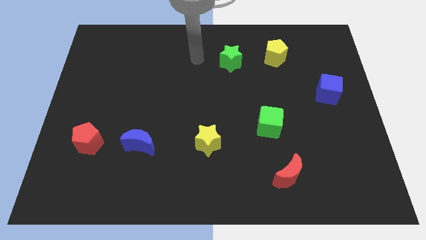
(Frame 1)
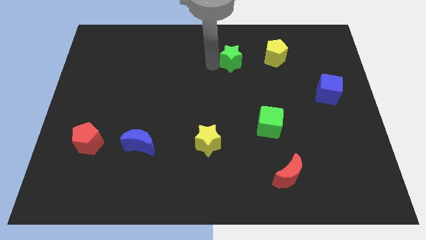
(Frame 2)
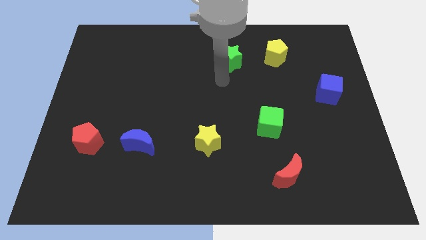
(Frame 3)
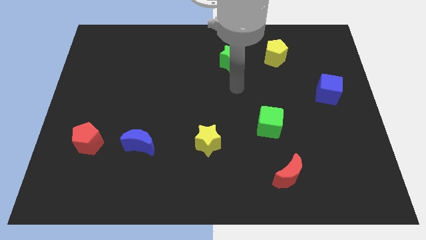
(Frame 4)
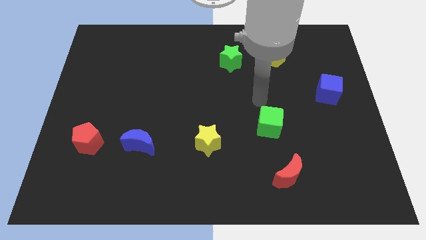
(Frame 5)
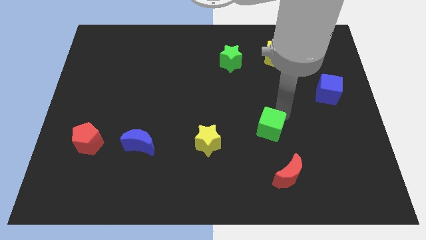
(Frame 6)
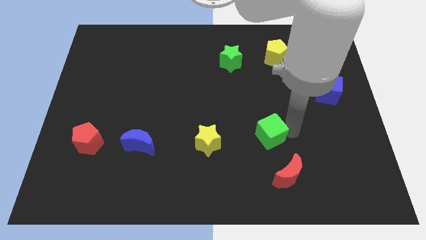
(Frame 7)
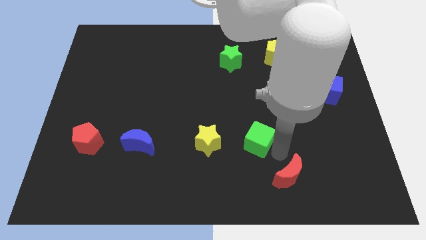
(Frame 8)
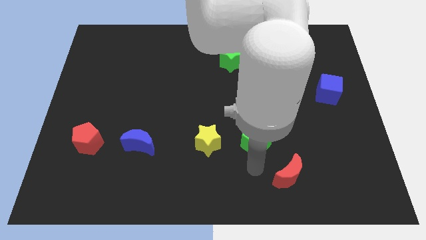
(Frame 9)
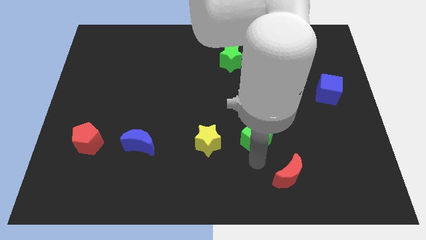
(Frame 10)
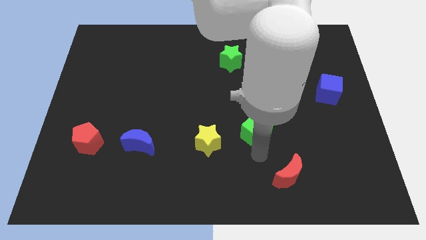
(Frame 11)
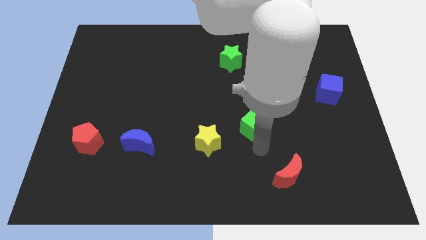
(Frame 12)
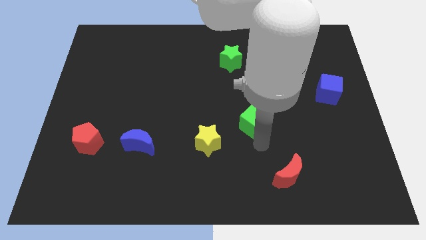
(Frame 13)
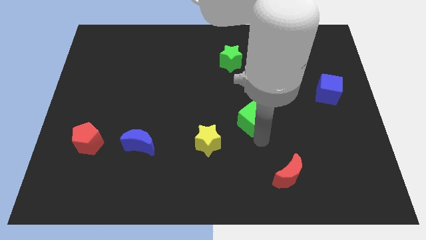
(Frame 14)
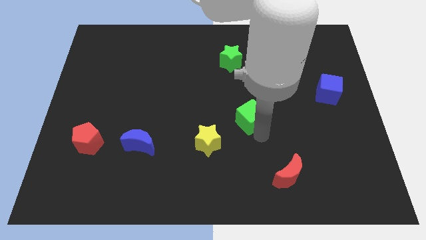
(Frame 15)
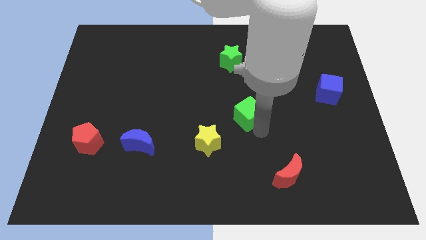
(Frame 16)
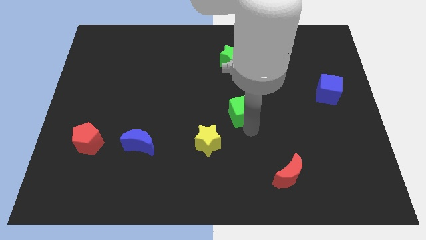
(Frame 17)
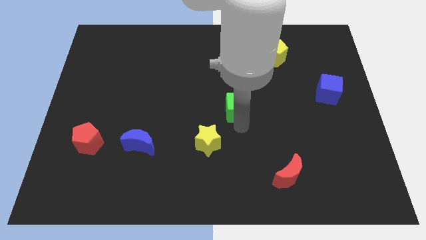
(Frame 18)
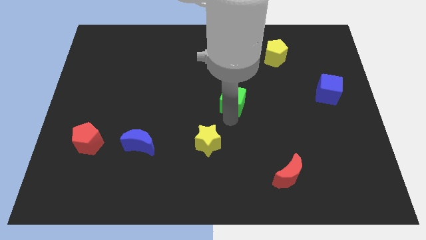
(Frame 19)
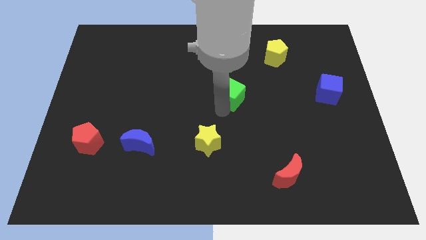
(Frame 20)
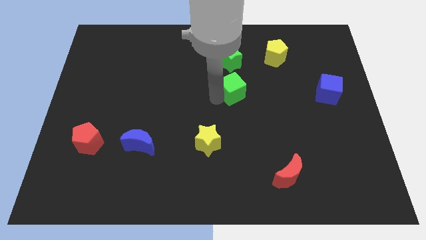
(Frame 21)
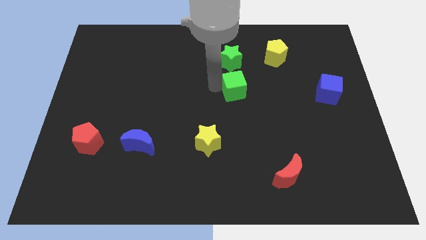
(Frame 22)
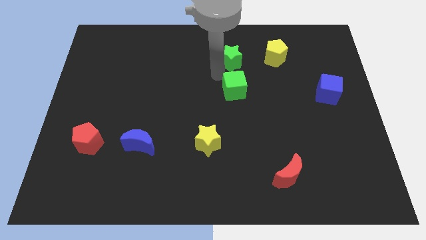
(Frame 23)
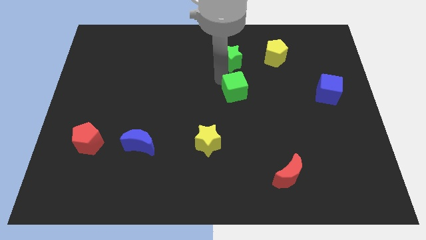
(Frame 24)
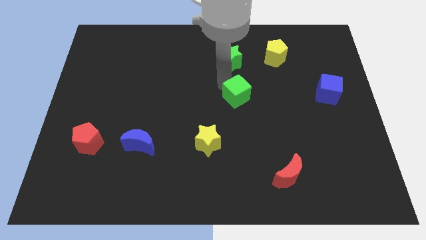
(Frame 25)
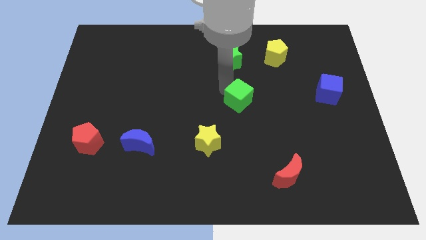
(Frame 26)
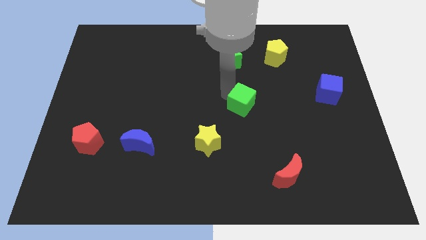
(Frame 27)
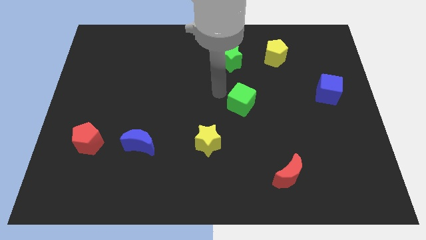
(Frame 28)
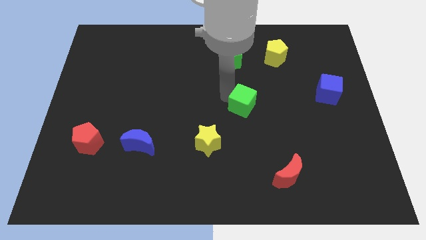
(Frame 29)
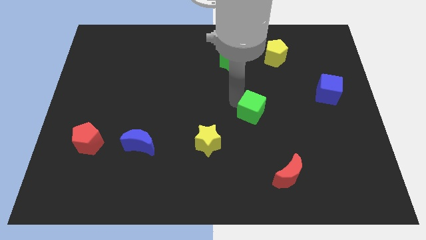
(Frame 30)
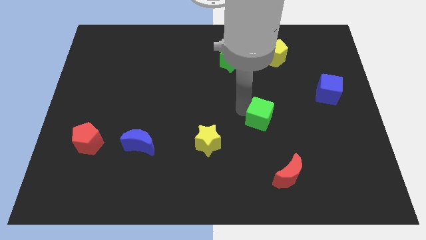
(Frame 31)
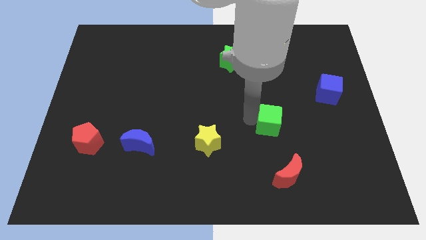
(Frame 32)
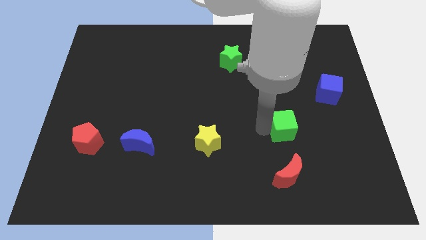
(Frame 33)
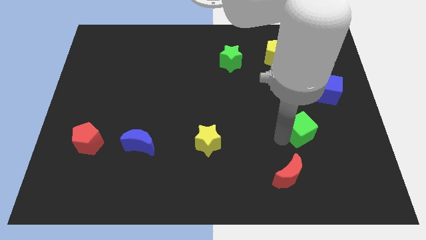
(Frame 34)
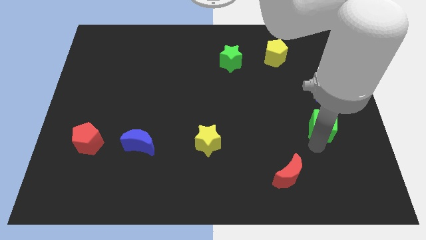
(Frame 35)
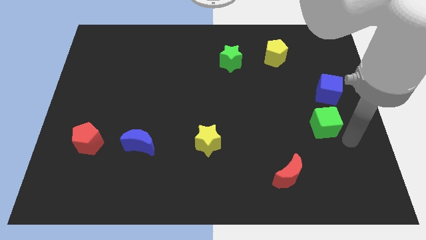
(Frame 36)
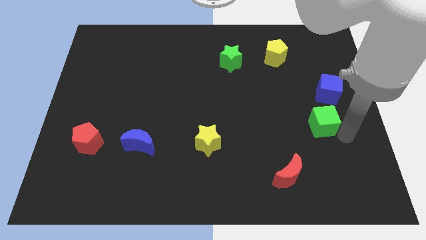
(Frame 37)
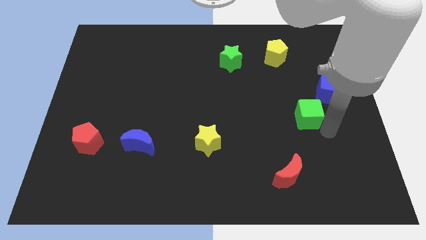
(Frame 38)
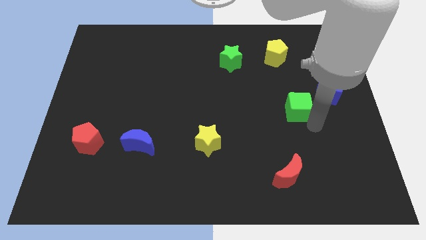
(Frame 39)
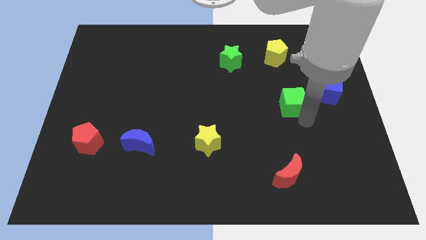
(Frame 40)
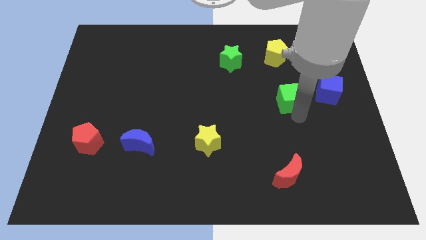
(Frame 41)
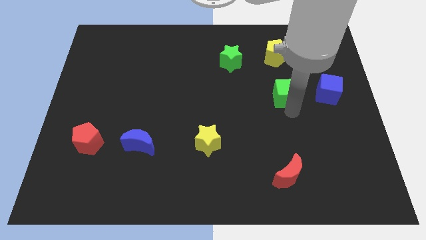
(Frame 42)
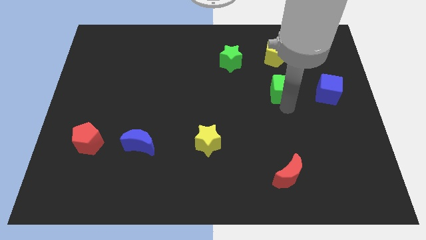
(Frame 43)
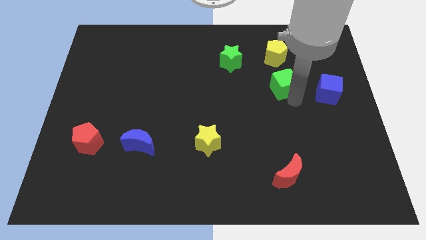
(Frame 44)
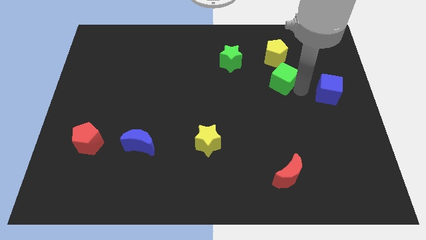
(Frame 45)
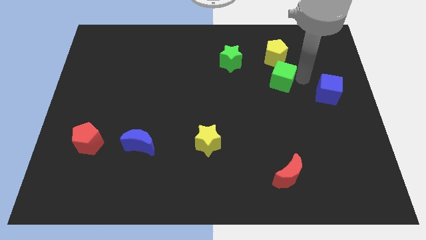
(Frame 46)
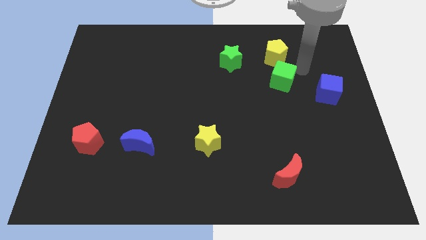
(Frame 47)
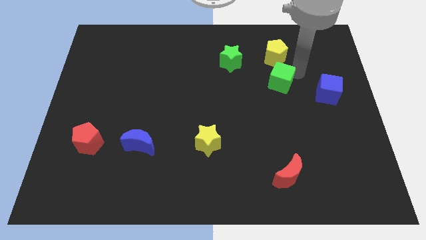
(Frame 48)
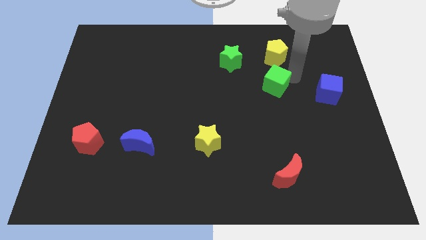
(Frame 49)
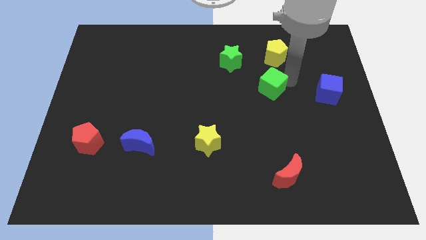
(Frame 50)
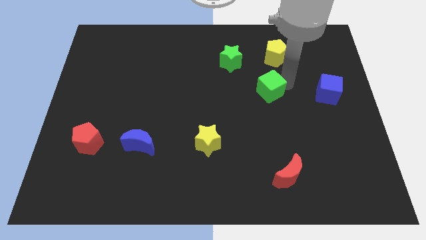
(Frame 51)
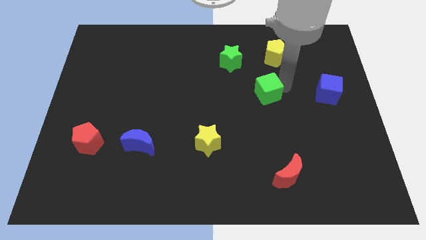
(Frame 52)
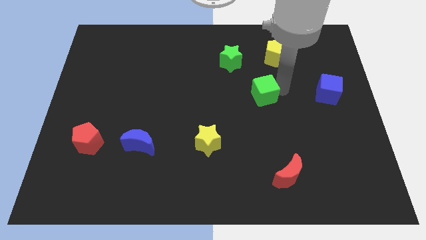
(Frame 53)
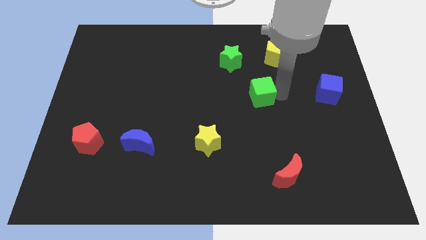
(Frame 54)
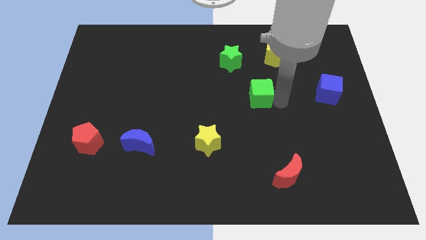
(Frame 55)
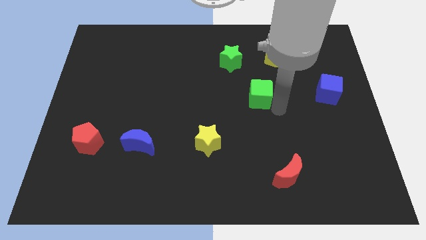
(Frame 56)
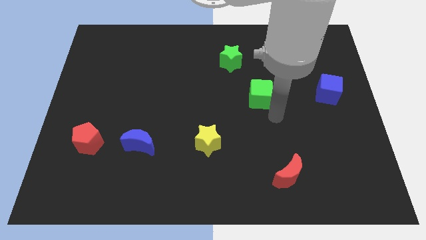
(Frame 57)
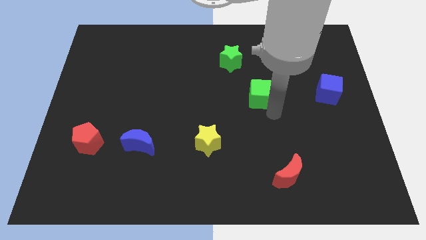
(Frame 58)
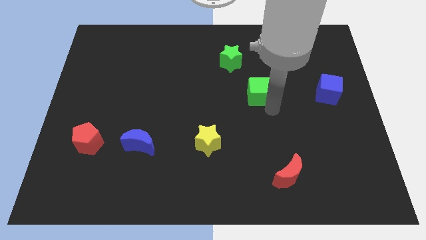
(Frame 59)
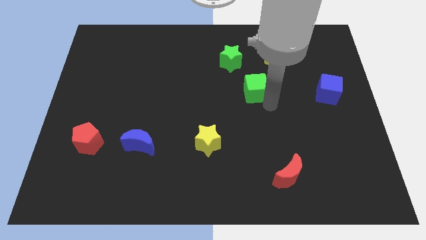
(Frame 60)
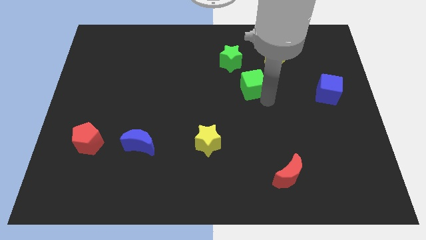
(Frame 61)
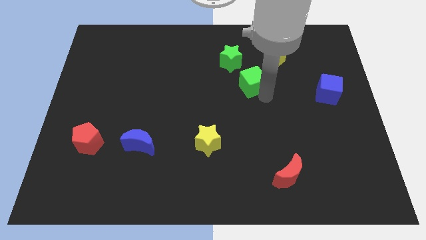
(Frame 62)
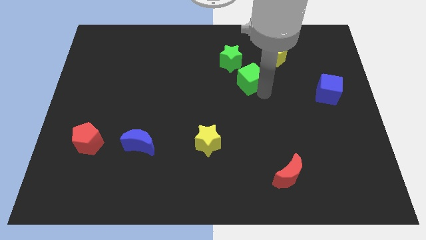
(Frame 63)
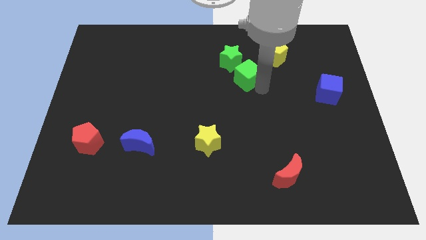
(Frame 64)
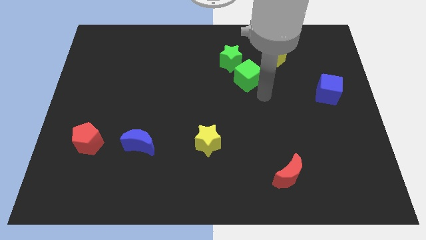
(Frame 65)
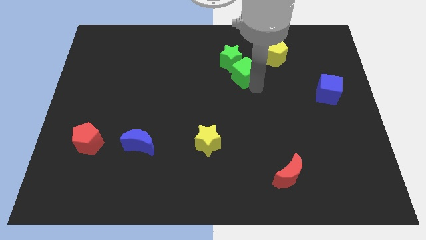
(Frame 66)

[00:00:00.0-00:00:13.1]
put the green cube next to the green star

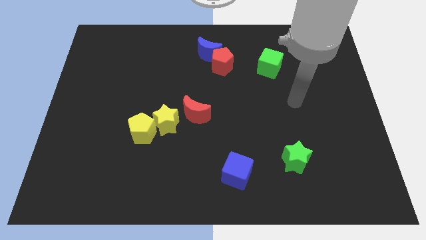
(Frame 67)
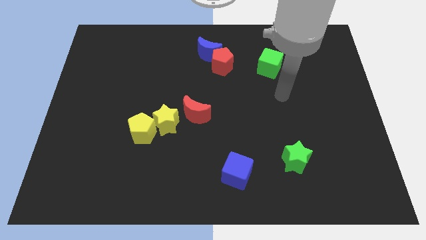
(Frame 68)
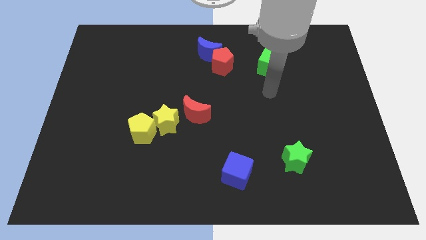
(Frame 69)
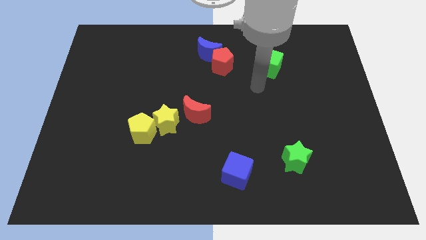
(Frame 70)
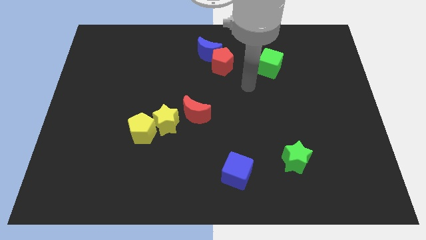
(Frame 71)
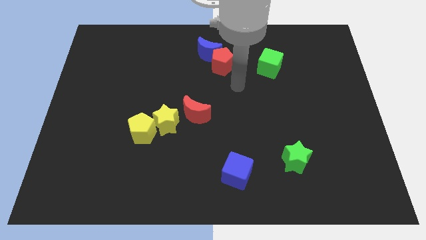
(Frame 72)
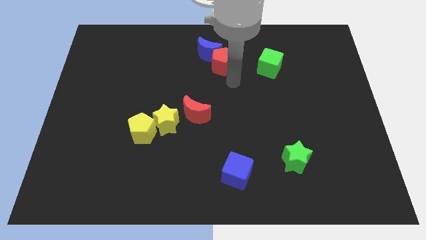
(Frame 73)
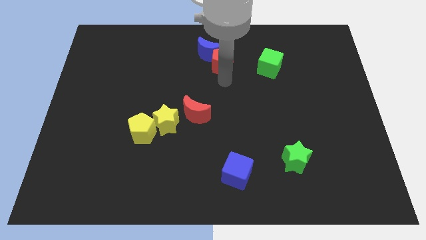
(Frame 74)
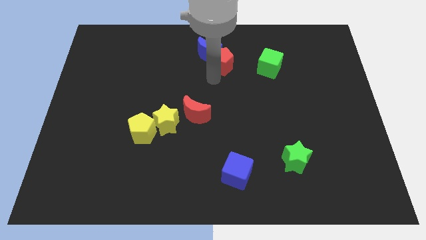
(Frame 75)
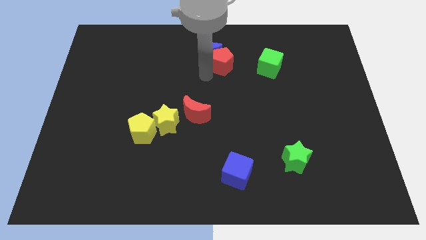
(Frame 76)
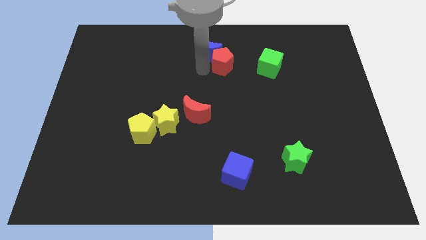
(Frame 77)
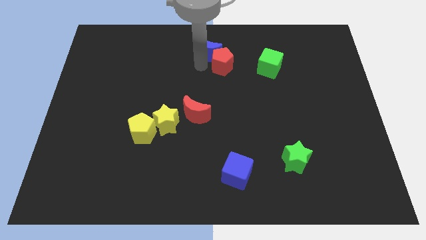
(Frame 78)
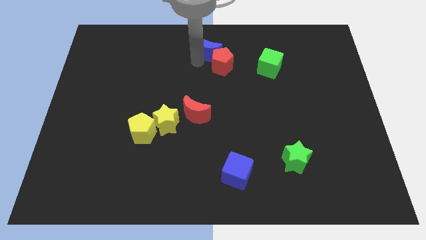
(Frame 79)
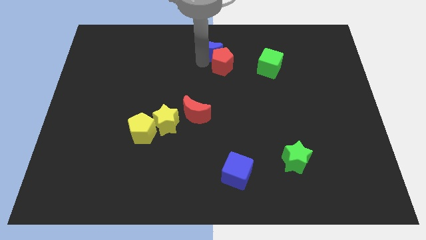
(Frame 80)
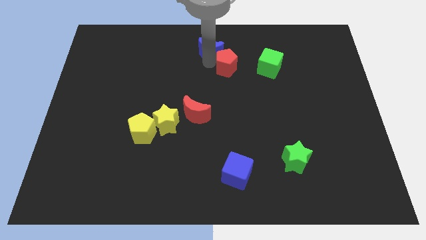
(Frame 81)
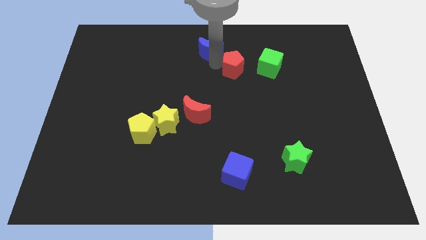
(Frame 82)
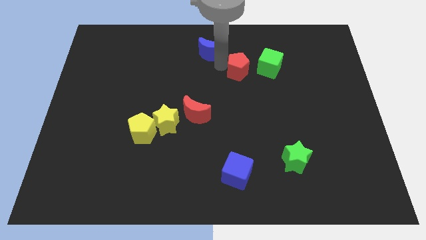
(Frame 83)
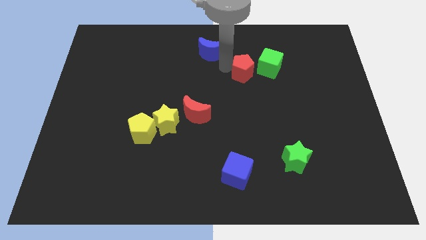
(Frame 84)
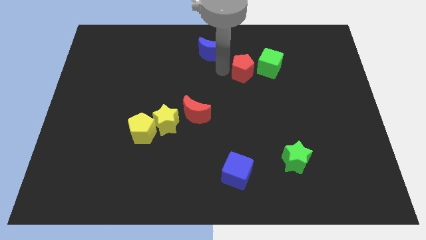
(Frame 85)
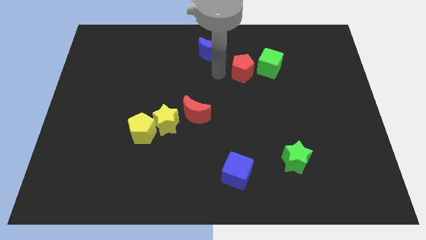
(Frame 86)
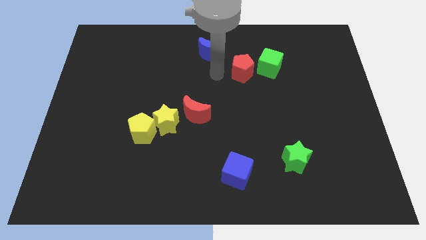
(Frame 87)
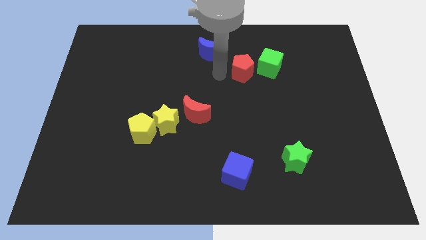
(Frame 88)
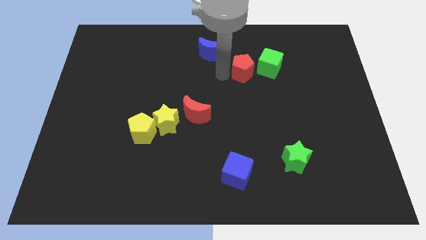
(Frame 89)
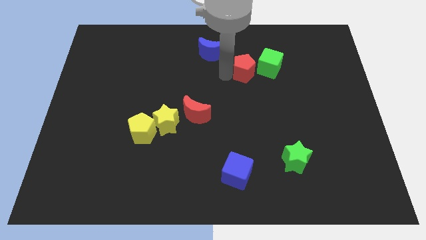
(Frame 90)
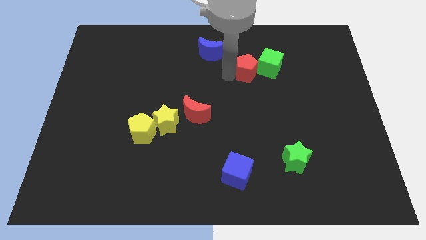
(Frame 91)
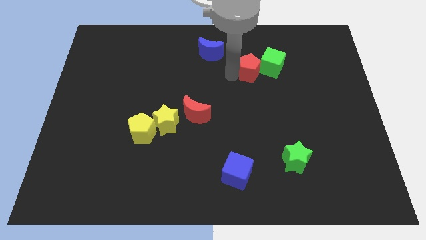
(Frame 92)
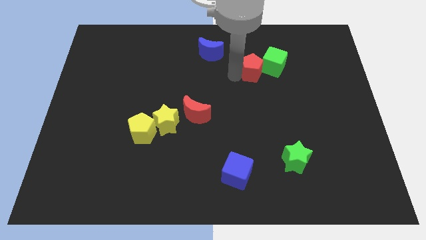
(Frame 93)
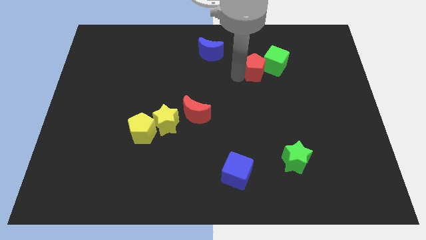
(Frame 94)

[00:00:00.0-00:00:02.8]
put the red pentagon close to the green cube
